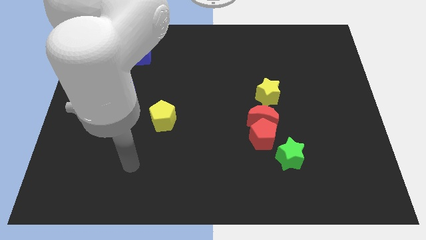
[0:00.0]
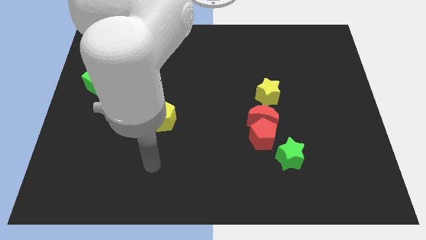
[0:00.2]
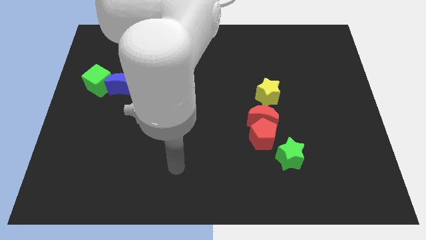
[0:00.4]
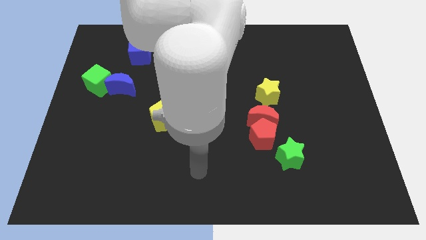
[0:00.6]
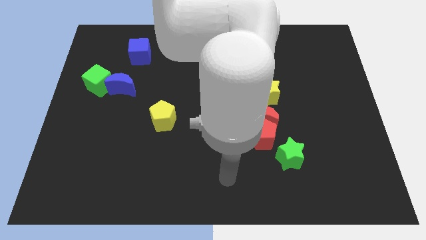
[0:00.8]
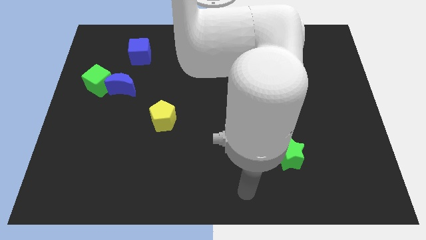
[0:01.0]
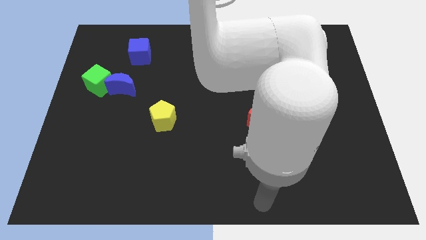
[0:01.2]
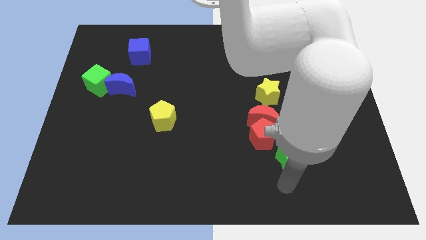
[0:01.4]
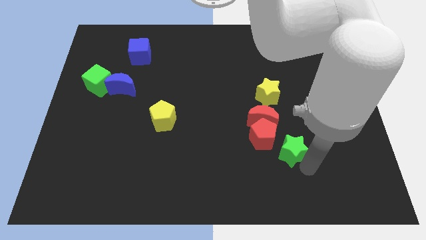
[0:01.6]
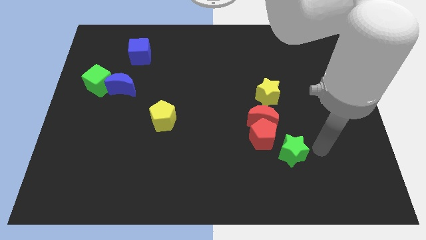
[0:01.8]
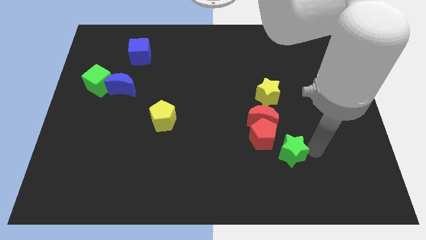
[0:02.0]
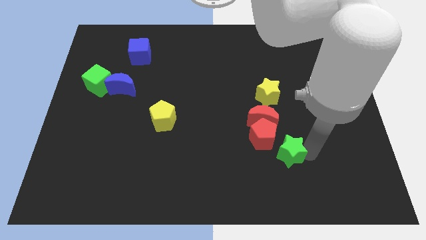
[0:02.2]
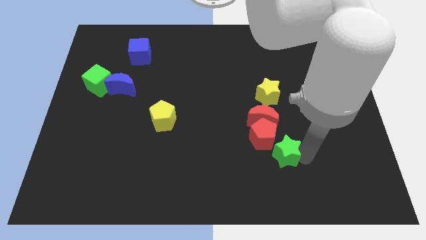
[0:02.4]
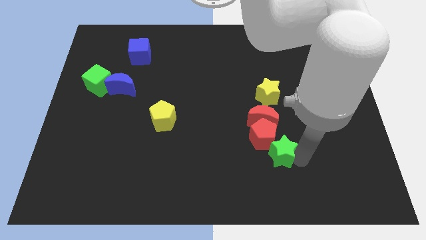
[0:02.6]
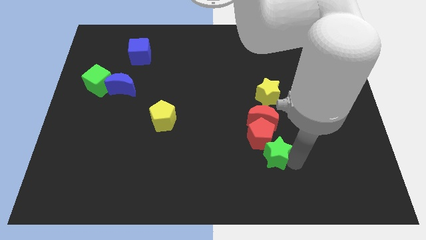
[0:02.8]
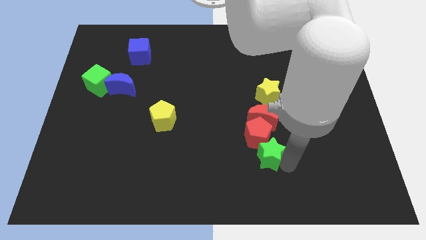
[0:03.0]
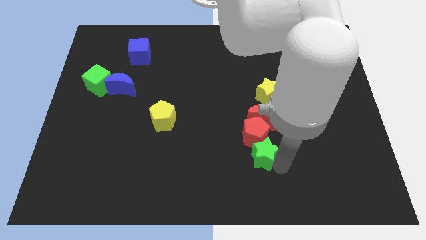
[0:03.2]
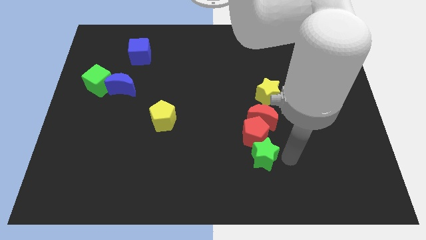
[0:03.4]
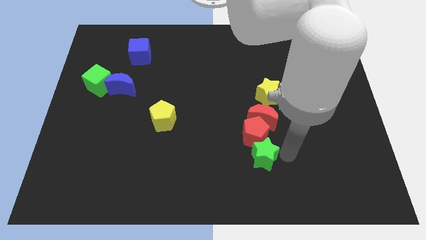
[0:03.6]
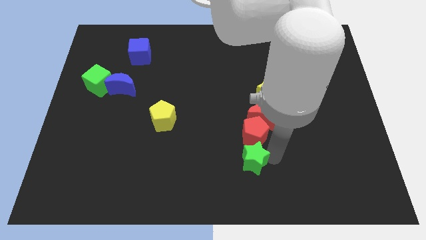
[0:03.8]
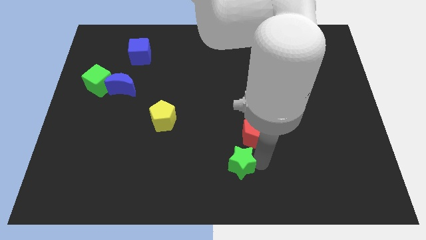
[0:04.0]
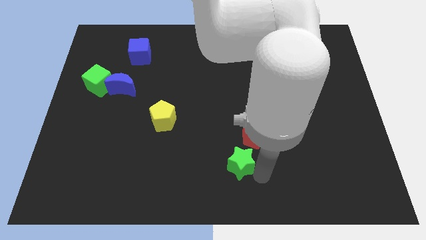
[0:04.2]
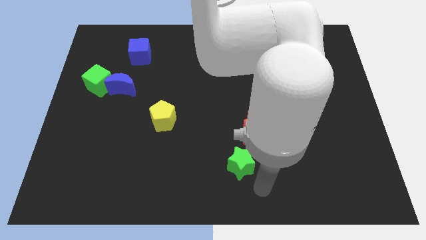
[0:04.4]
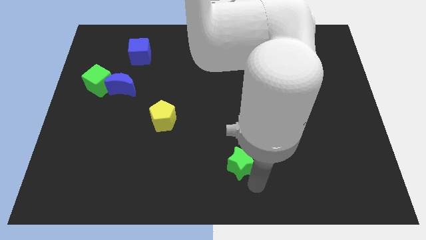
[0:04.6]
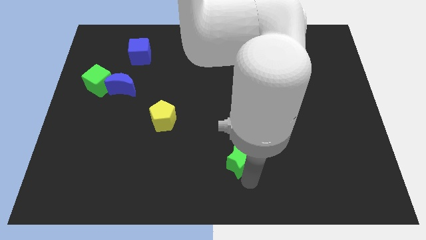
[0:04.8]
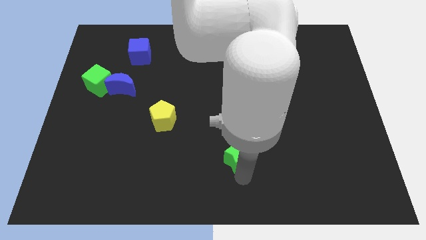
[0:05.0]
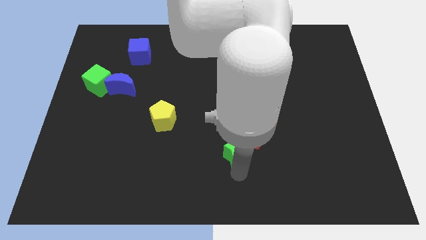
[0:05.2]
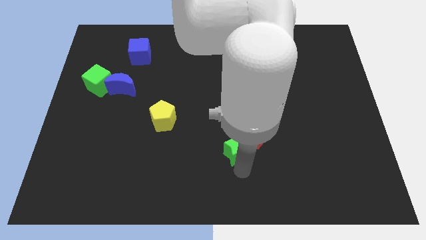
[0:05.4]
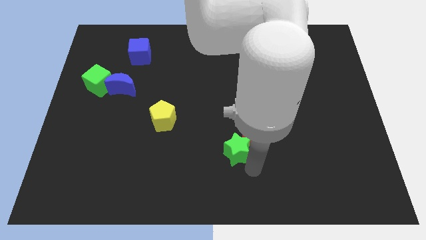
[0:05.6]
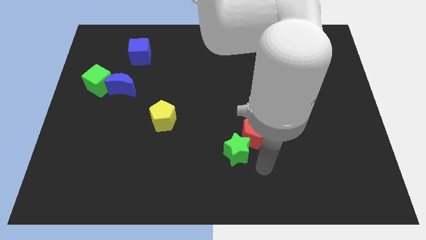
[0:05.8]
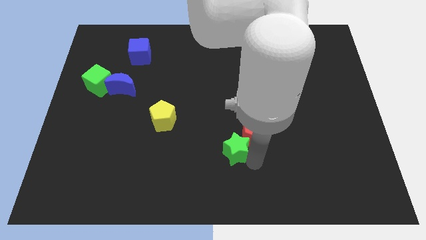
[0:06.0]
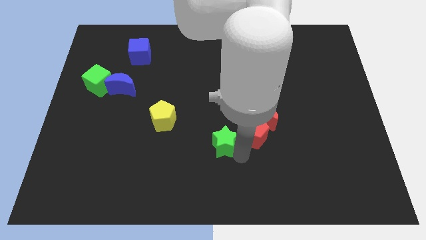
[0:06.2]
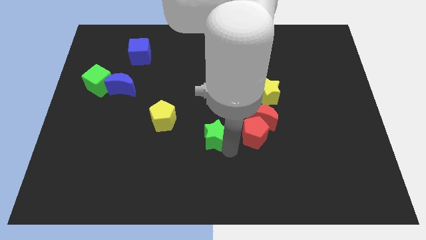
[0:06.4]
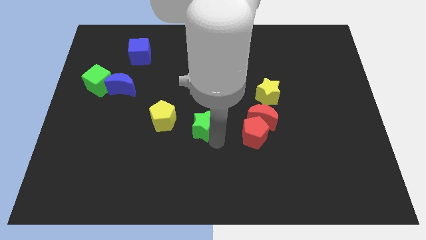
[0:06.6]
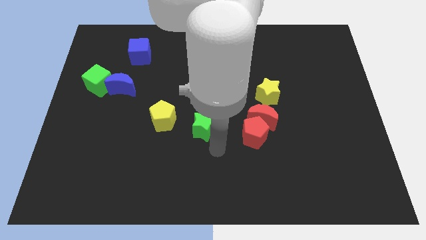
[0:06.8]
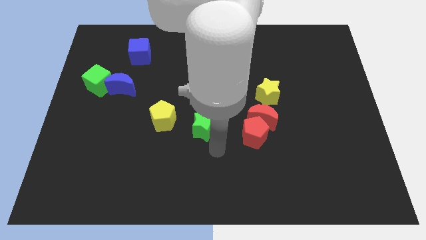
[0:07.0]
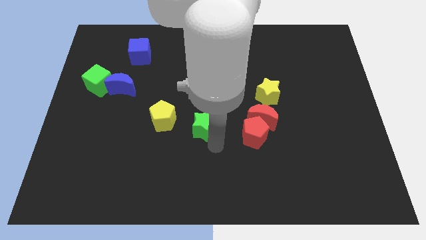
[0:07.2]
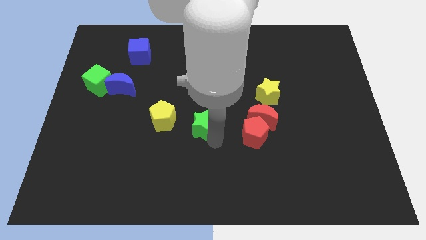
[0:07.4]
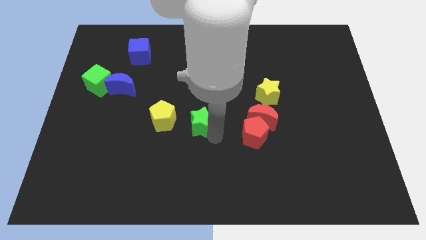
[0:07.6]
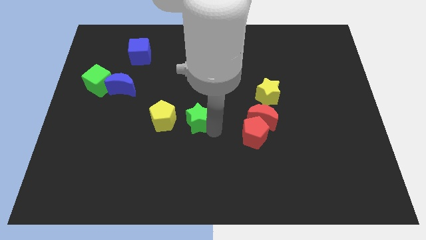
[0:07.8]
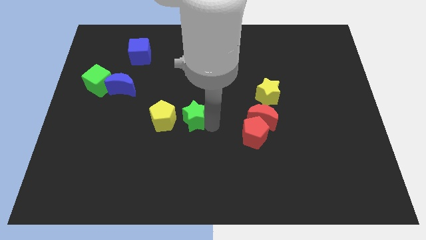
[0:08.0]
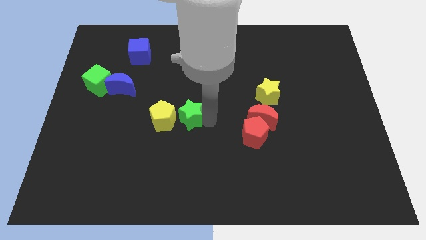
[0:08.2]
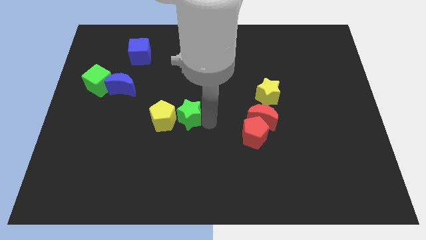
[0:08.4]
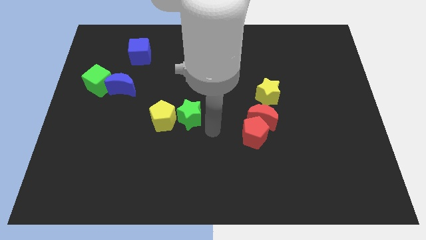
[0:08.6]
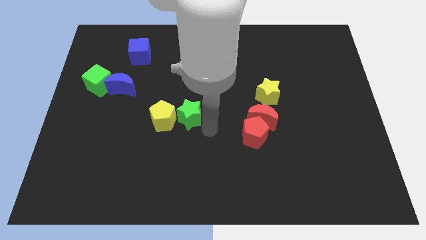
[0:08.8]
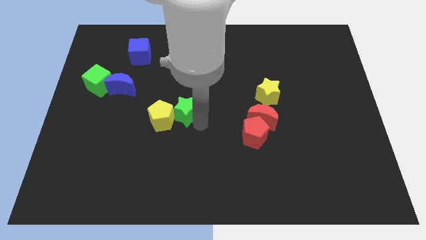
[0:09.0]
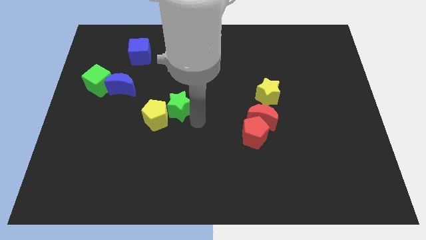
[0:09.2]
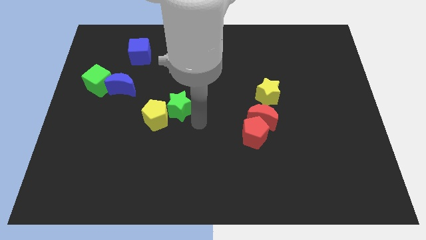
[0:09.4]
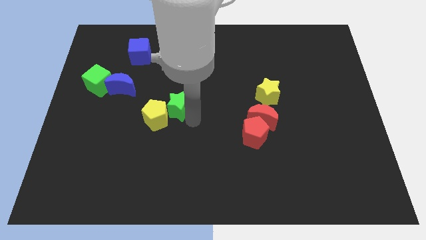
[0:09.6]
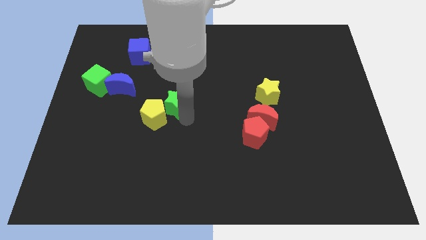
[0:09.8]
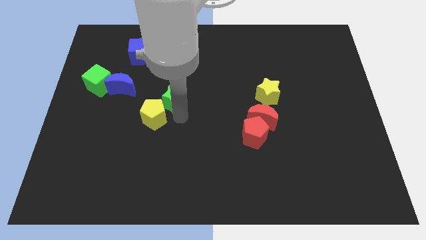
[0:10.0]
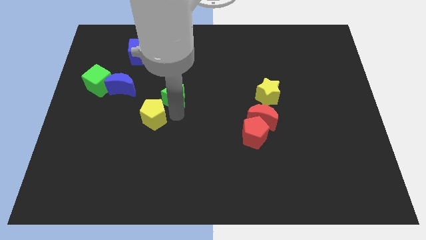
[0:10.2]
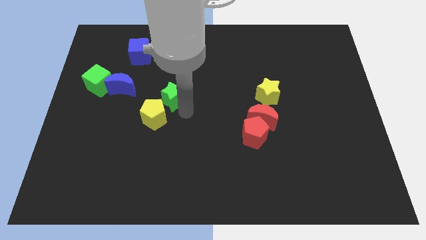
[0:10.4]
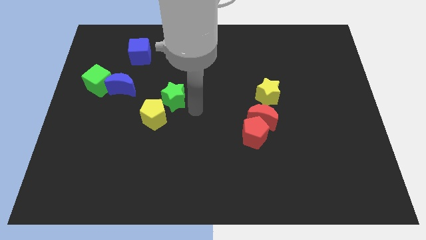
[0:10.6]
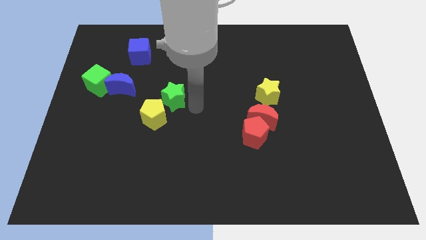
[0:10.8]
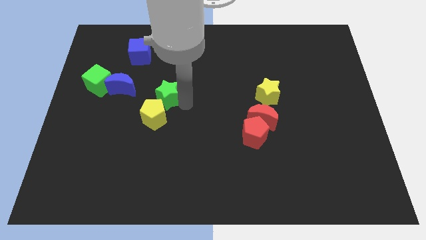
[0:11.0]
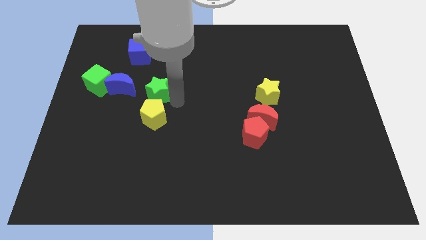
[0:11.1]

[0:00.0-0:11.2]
put the green star to the right of the green cube

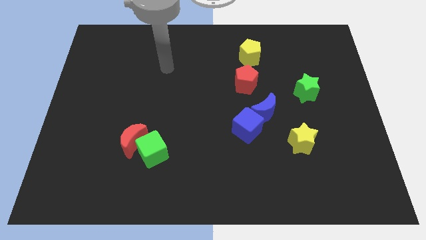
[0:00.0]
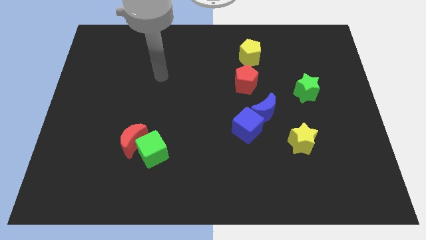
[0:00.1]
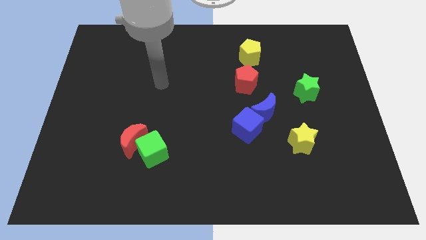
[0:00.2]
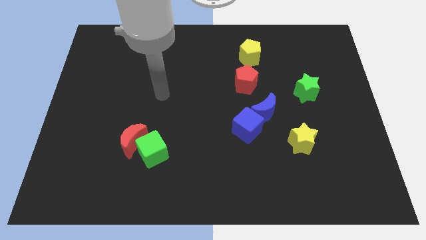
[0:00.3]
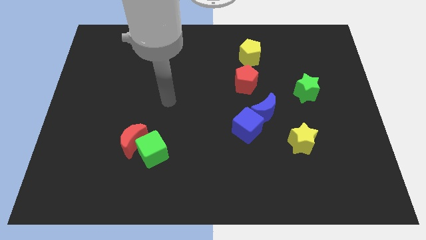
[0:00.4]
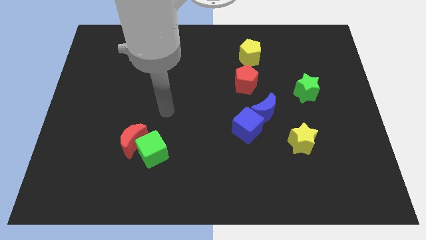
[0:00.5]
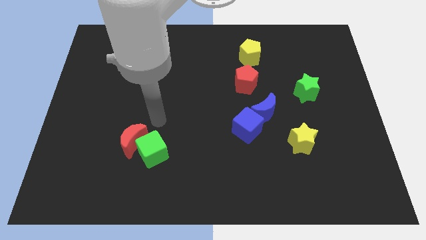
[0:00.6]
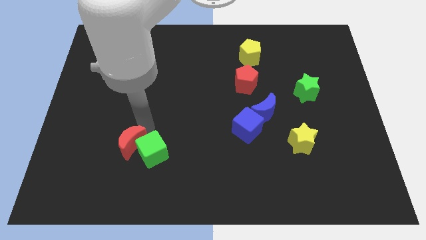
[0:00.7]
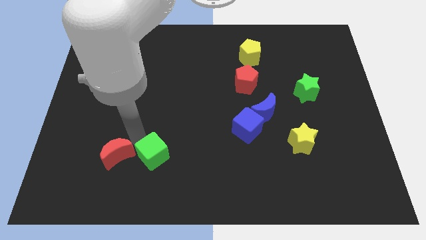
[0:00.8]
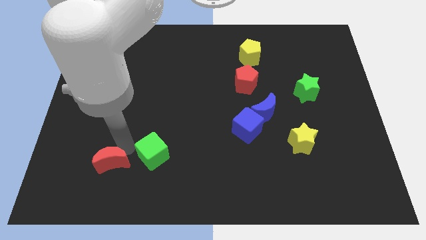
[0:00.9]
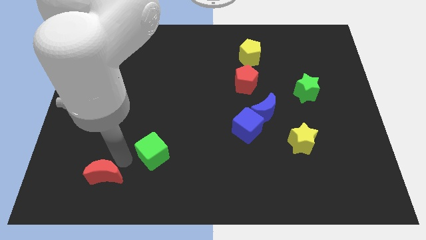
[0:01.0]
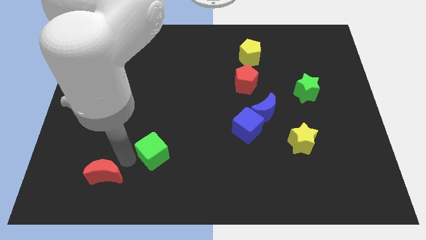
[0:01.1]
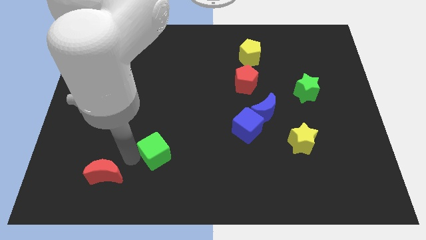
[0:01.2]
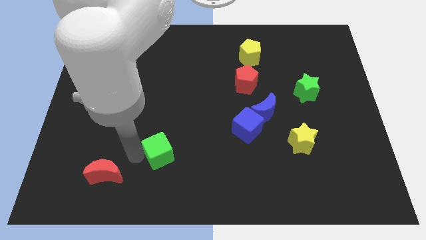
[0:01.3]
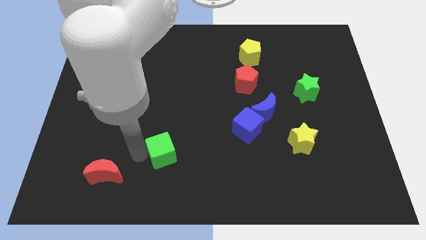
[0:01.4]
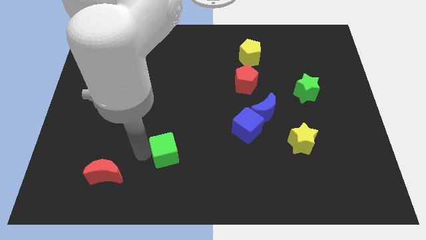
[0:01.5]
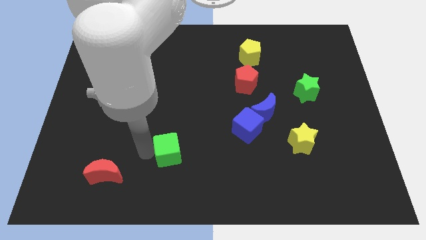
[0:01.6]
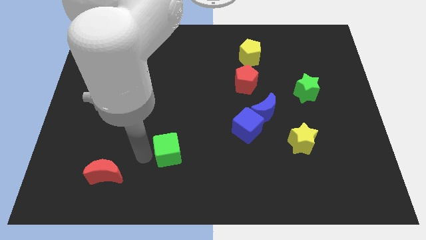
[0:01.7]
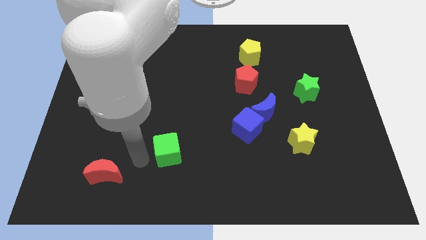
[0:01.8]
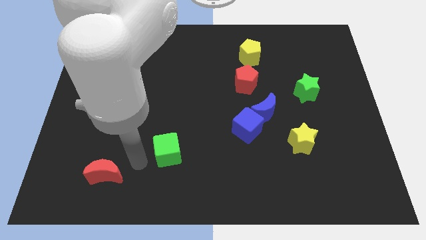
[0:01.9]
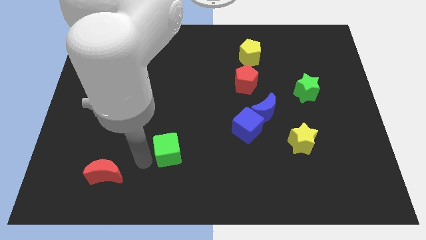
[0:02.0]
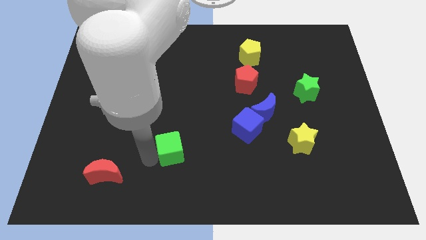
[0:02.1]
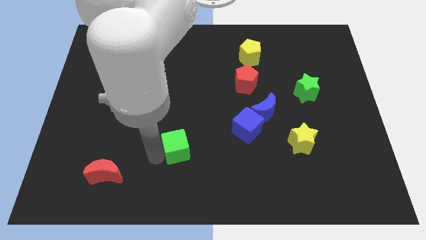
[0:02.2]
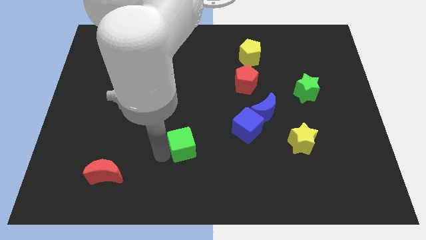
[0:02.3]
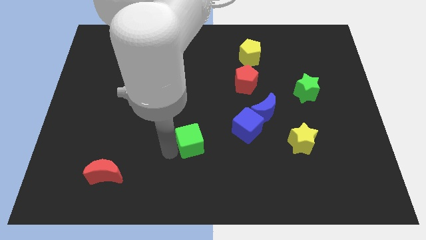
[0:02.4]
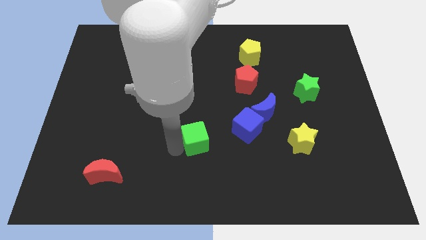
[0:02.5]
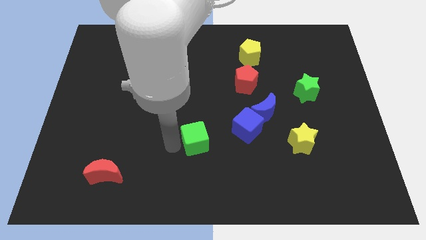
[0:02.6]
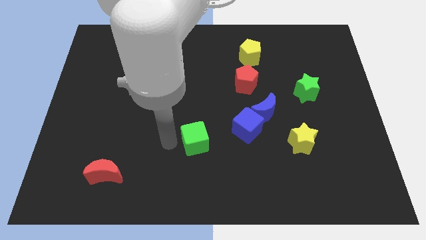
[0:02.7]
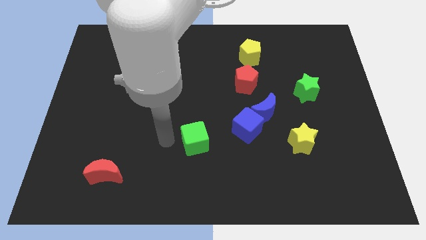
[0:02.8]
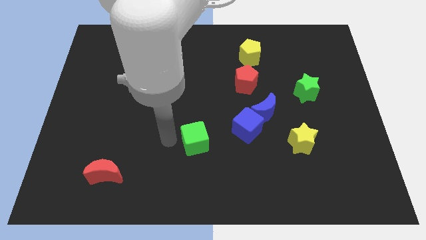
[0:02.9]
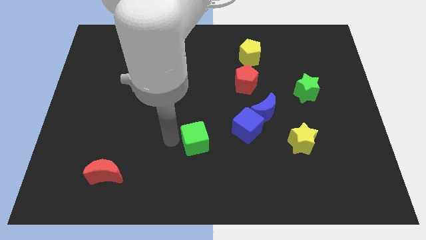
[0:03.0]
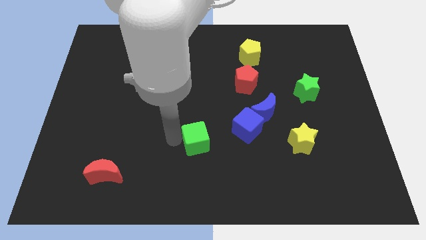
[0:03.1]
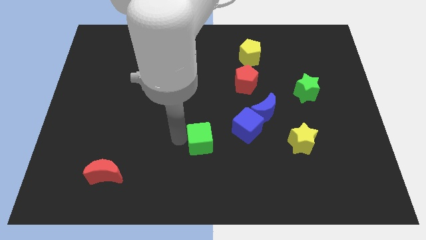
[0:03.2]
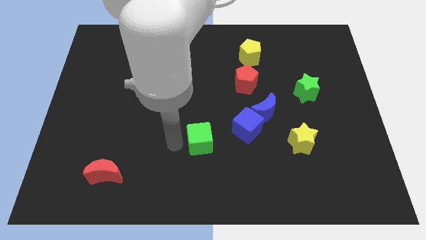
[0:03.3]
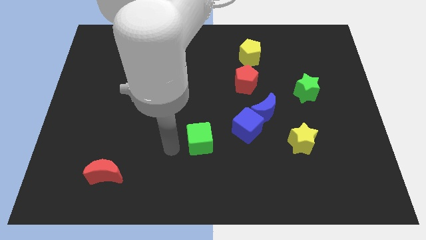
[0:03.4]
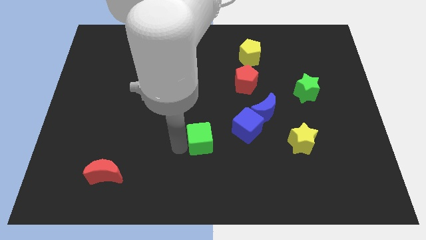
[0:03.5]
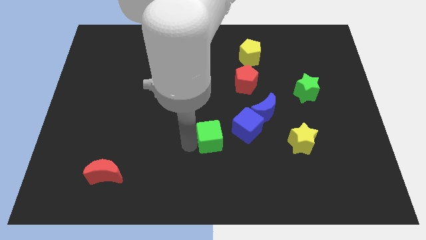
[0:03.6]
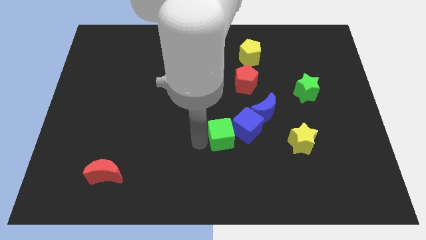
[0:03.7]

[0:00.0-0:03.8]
slide the green cube to the bottom left side of the blue moon
